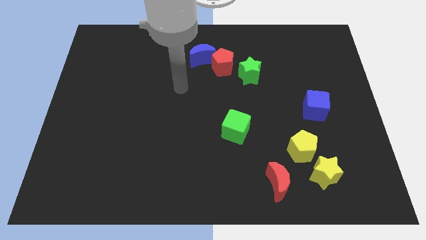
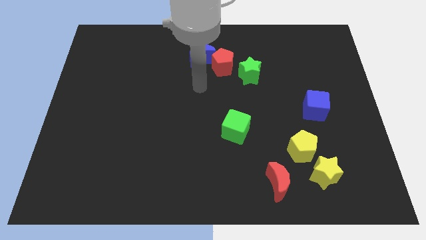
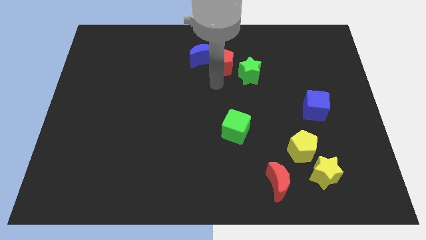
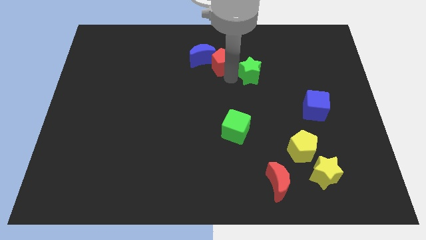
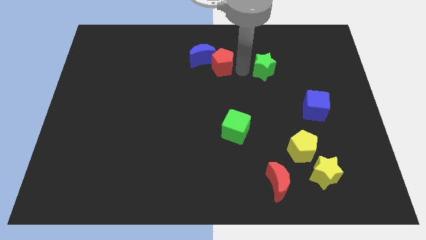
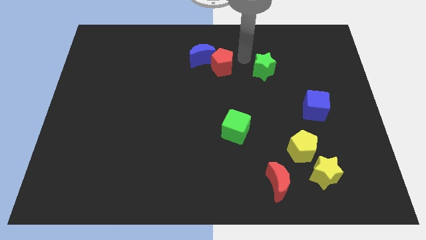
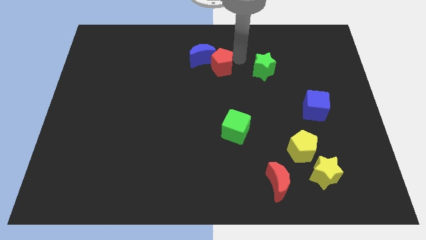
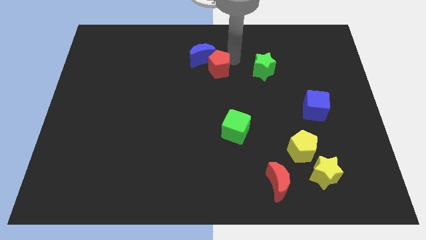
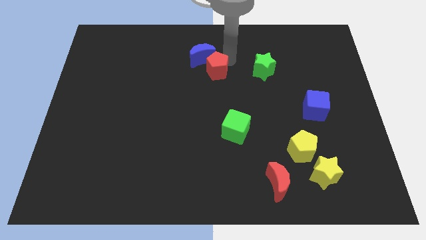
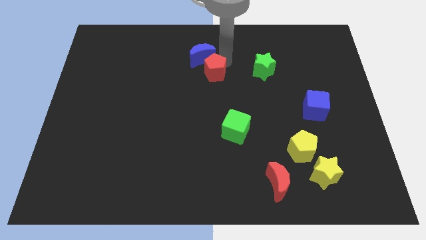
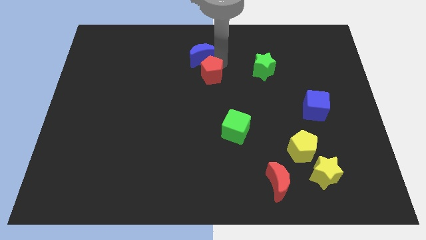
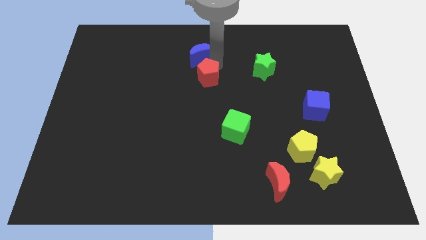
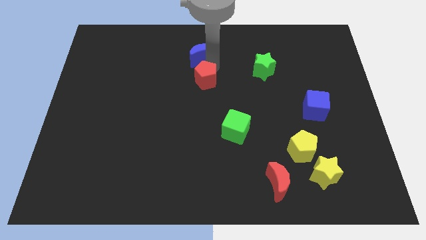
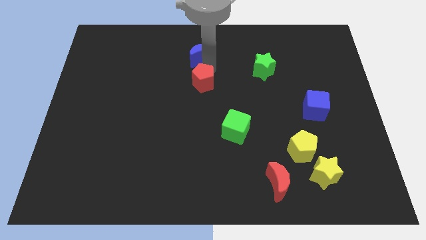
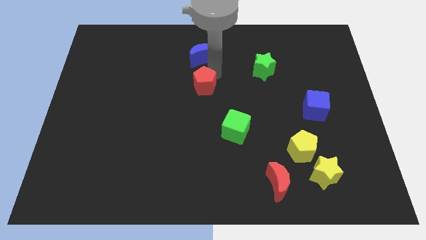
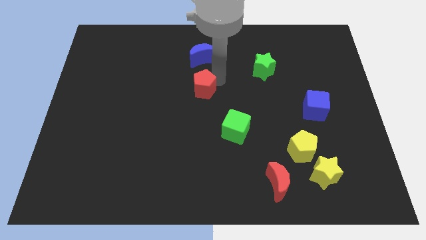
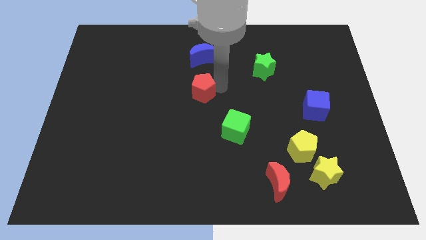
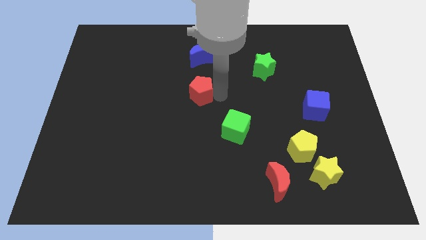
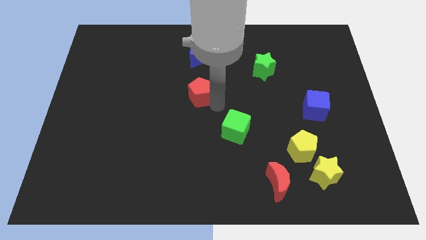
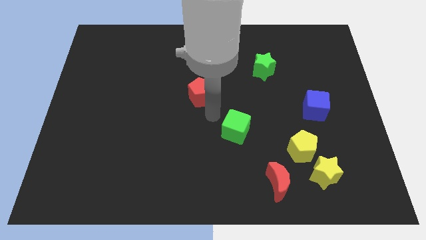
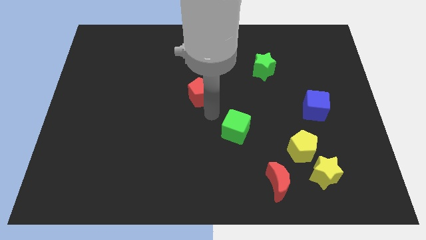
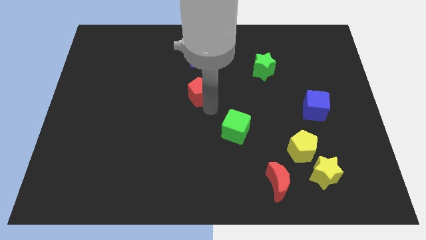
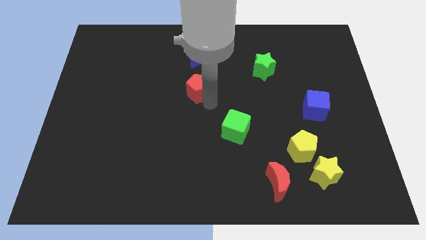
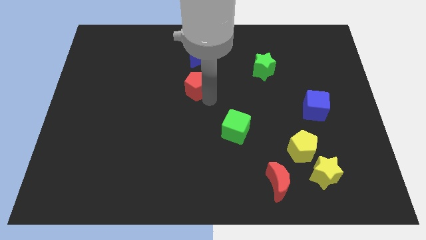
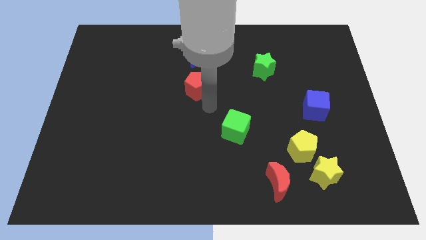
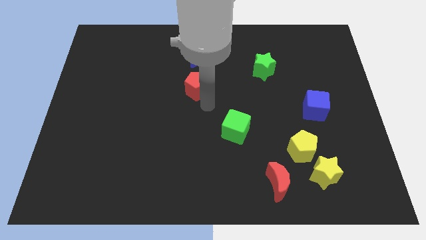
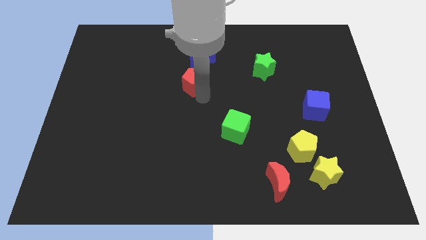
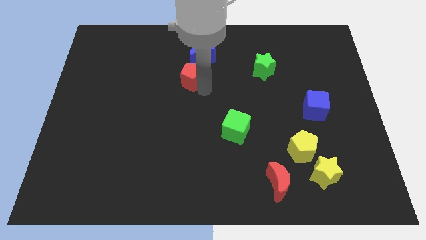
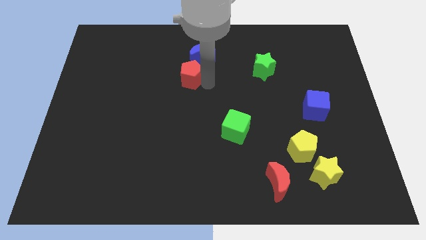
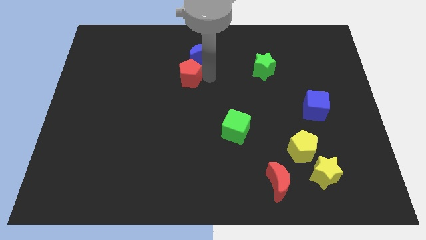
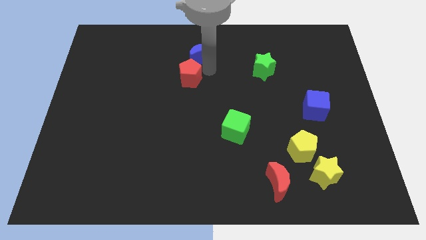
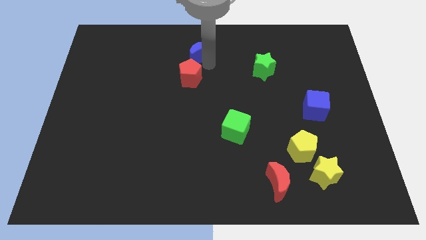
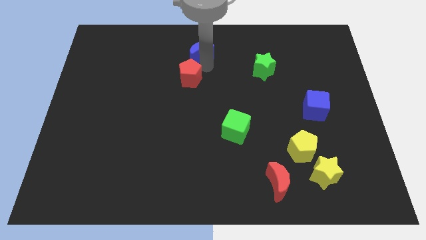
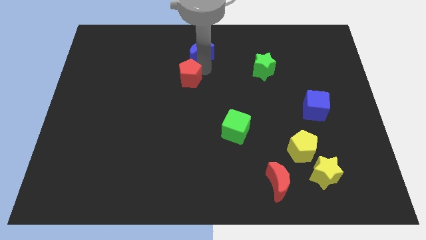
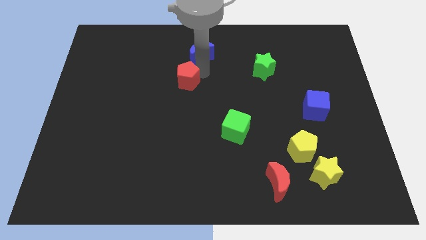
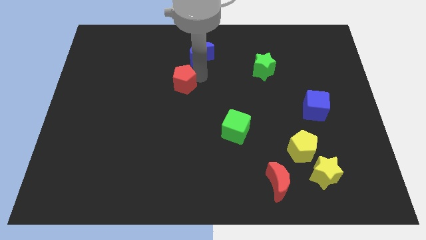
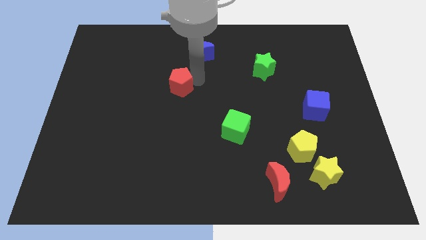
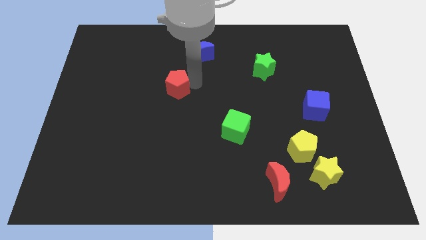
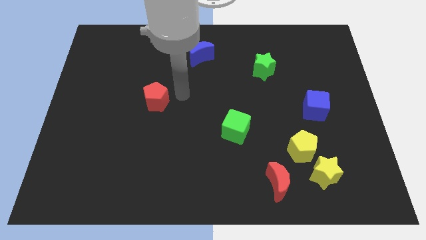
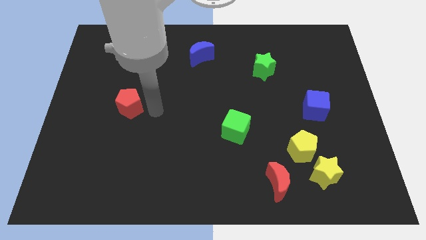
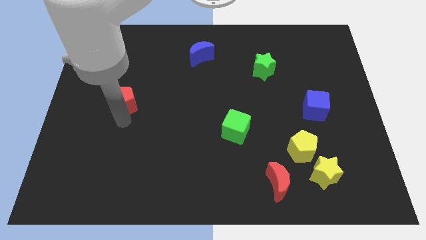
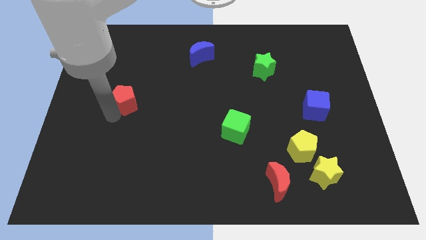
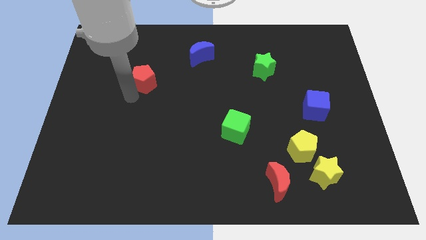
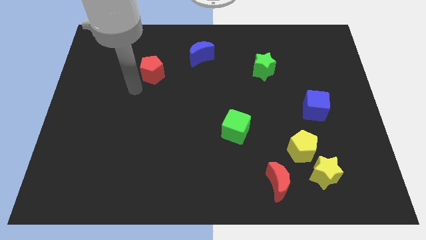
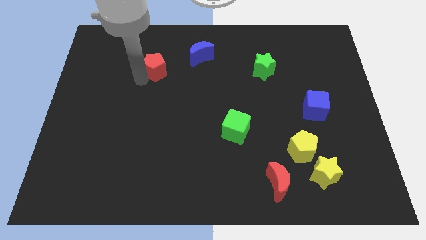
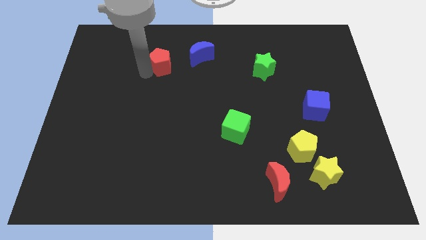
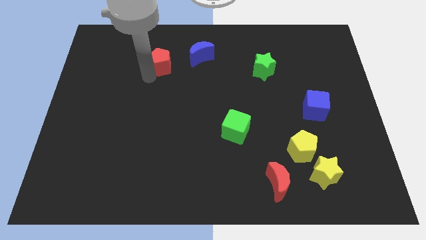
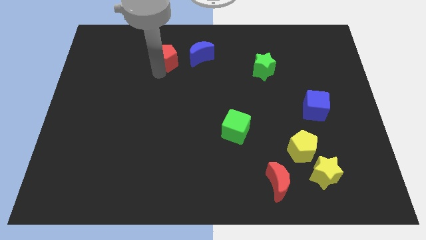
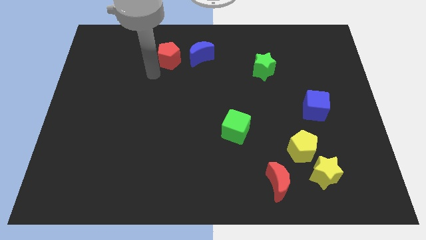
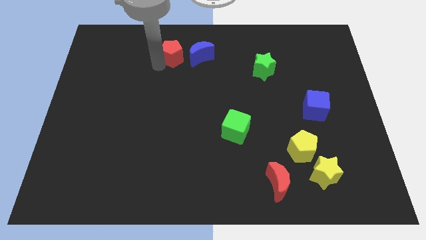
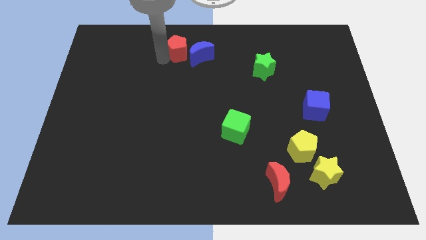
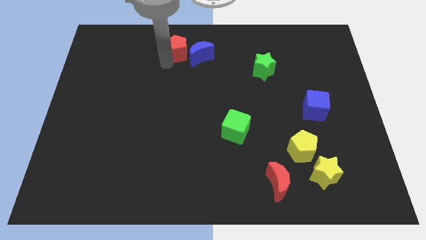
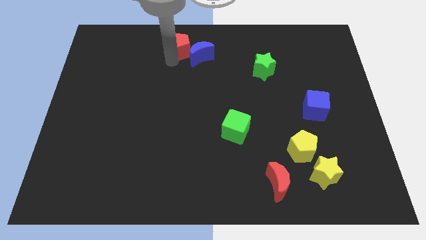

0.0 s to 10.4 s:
slide the red pentagon to the top side

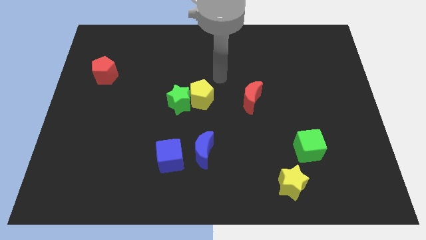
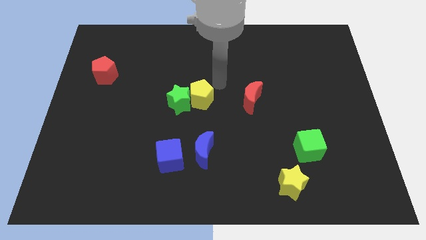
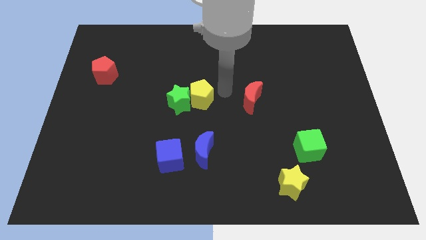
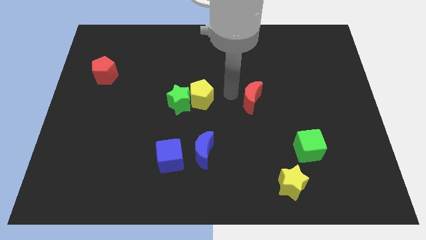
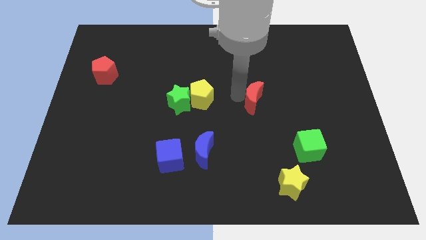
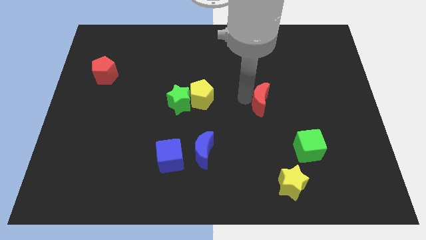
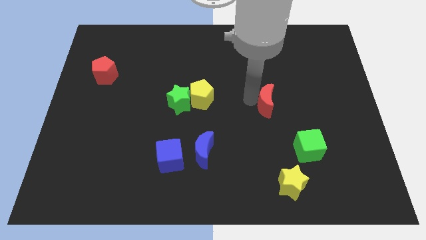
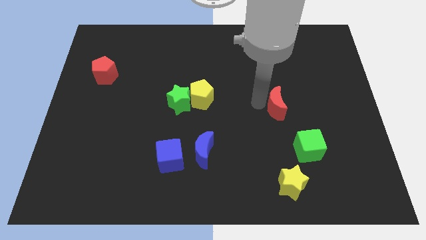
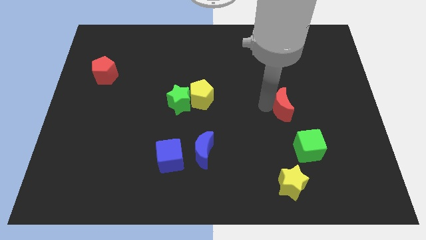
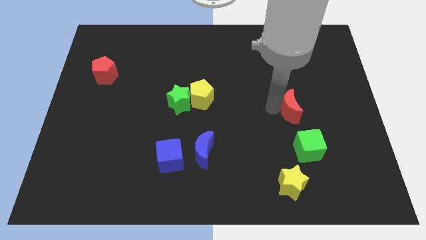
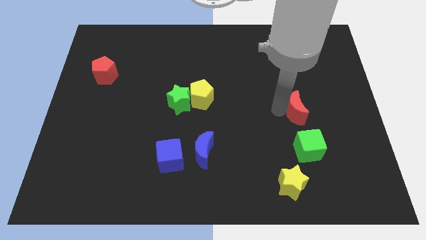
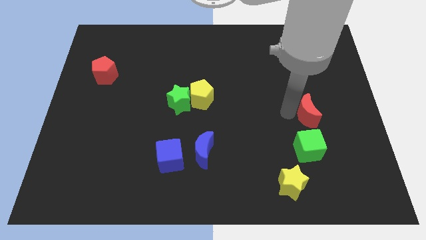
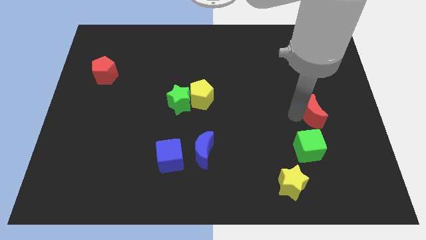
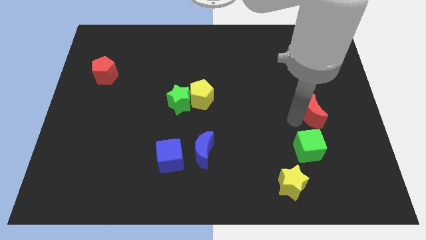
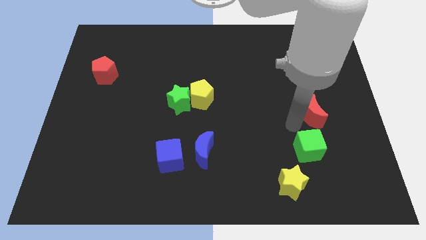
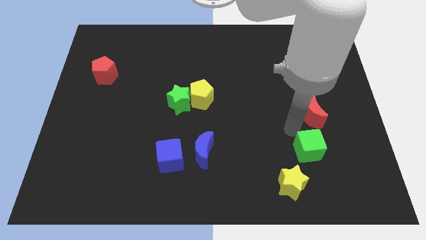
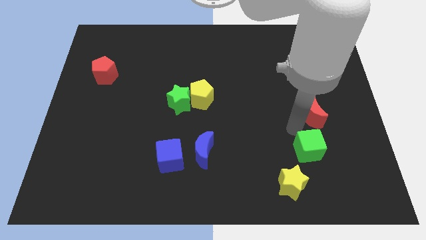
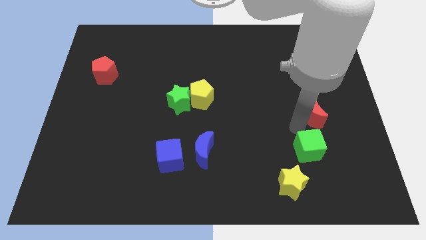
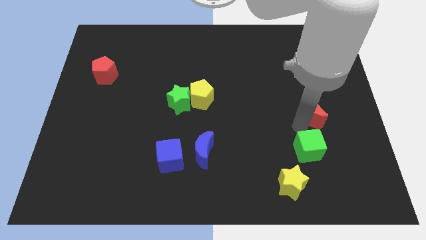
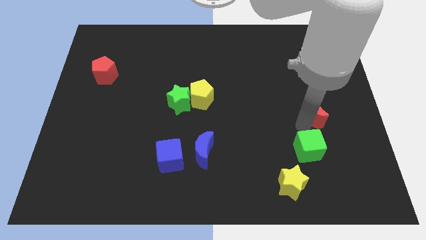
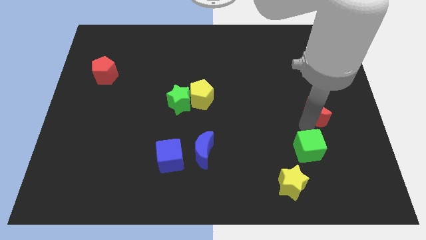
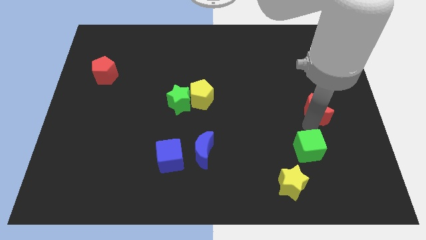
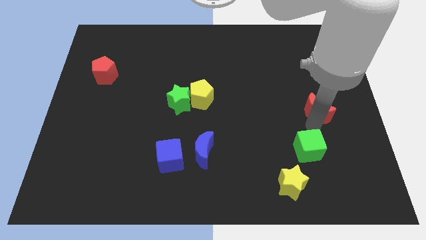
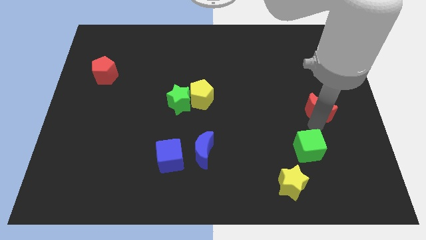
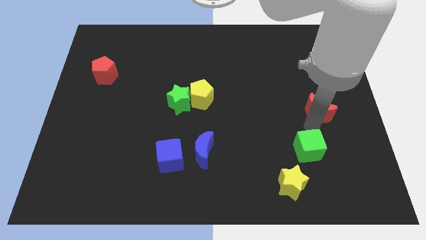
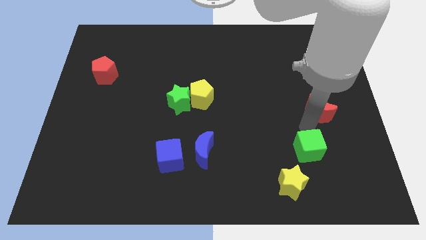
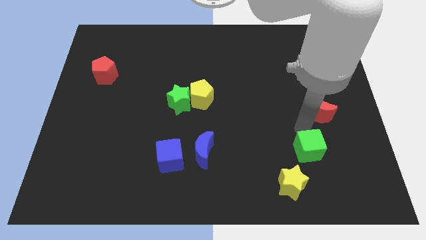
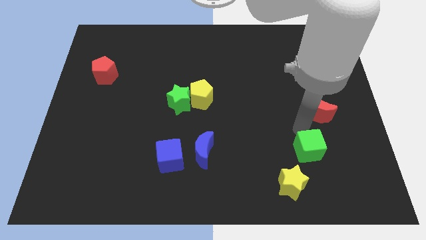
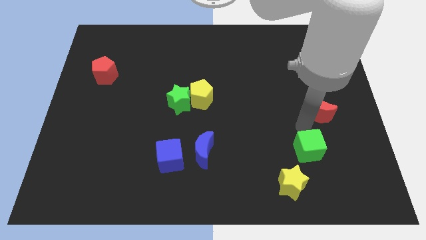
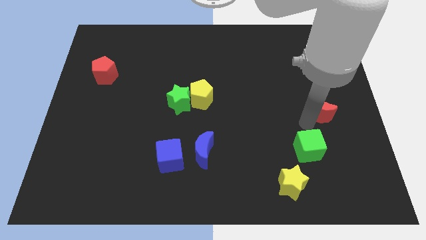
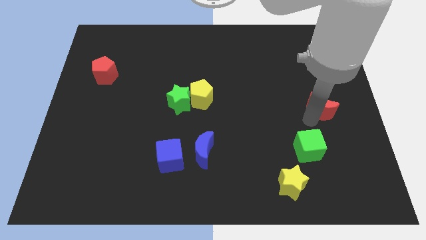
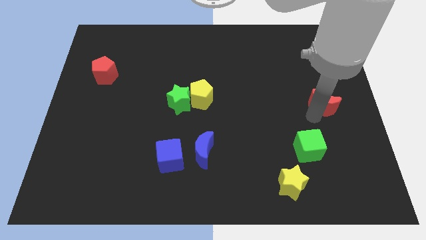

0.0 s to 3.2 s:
put the red moon to the center right
